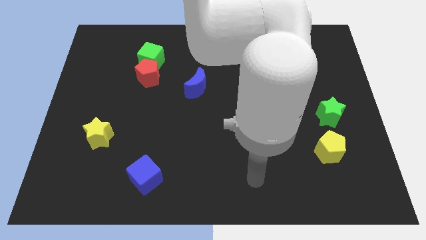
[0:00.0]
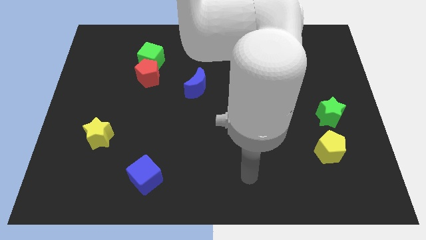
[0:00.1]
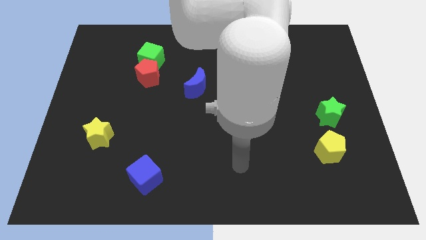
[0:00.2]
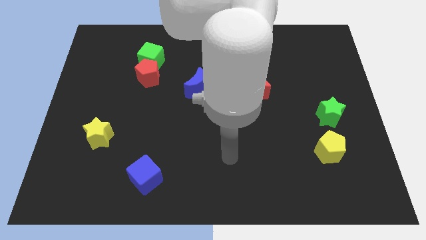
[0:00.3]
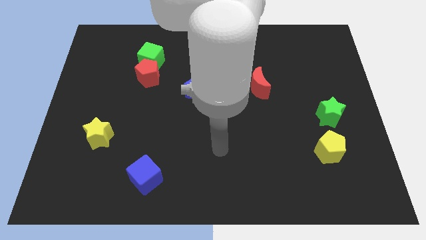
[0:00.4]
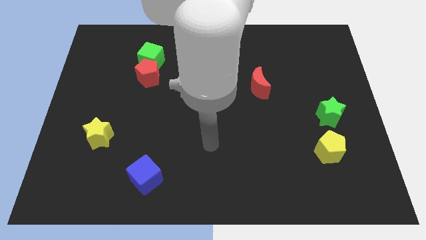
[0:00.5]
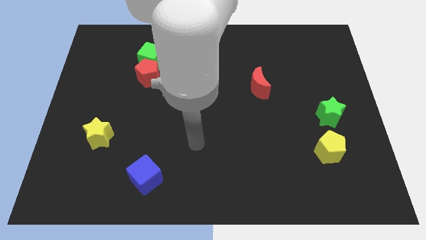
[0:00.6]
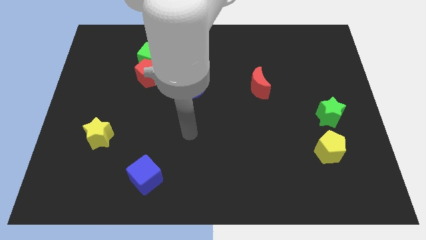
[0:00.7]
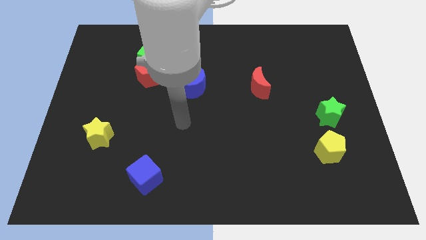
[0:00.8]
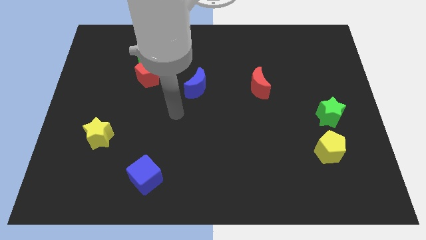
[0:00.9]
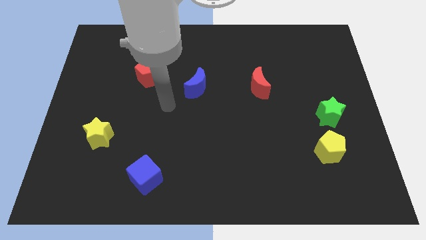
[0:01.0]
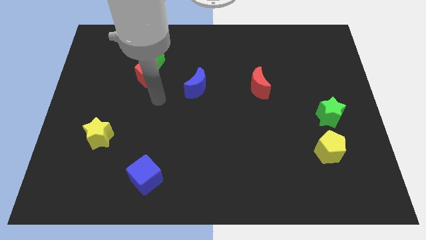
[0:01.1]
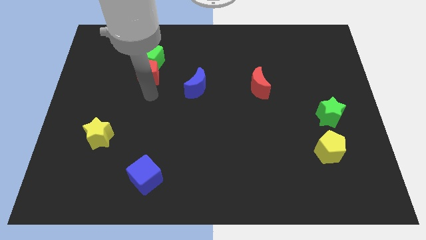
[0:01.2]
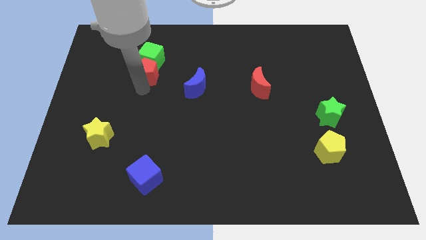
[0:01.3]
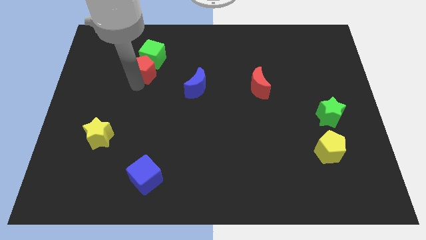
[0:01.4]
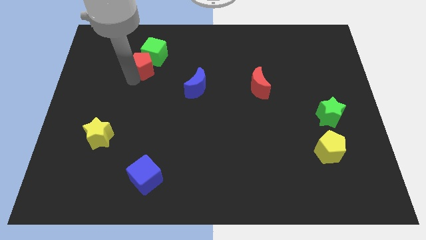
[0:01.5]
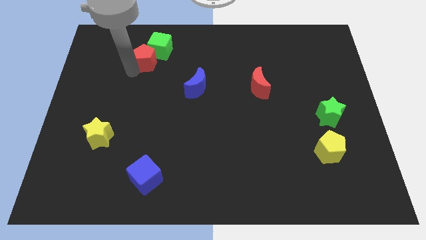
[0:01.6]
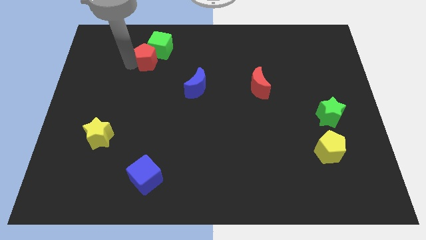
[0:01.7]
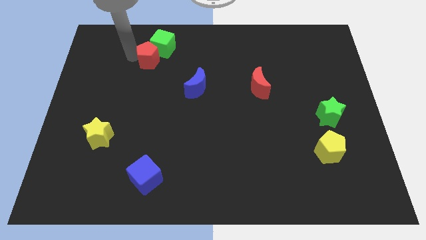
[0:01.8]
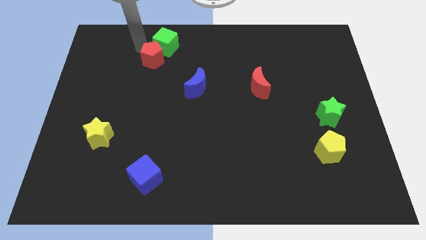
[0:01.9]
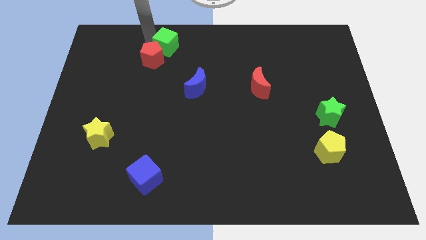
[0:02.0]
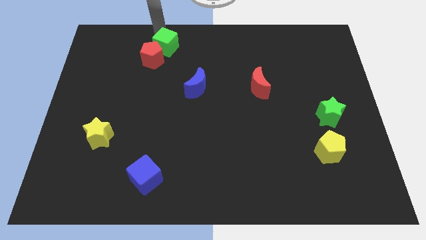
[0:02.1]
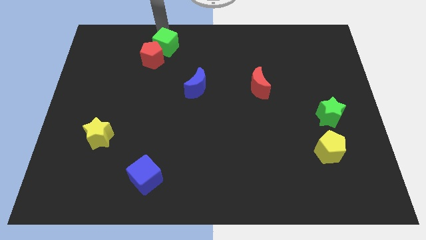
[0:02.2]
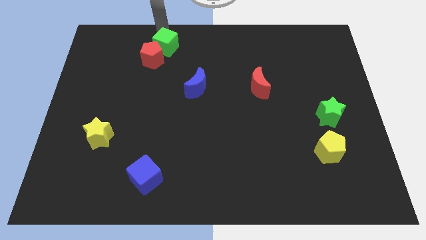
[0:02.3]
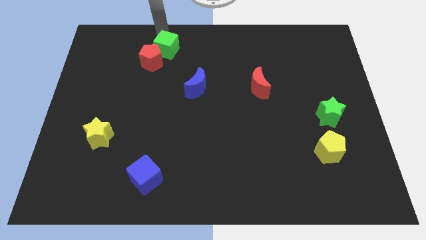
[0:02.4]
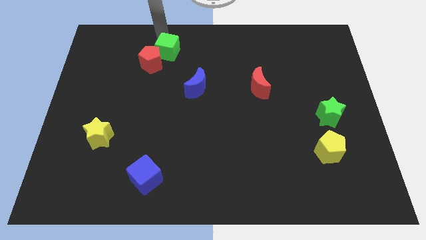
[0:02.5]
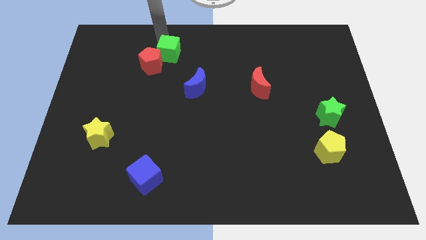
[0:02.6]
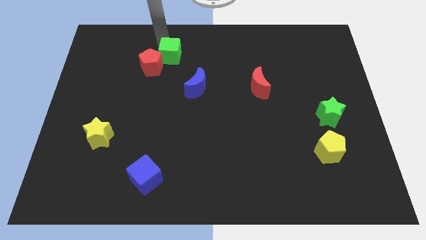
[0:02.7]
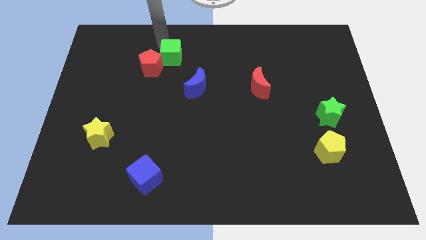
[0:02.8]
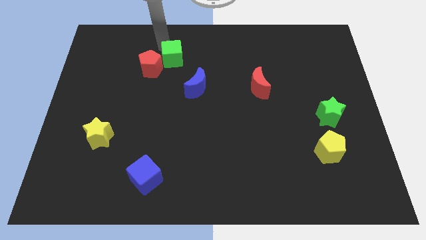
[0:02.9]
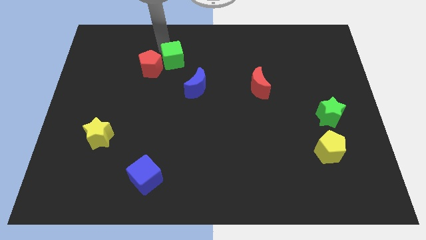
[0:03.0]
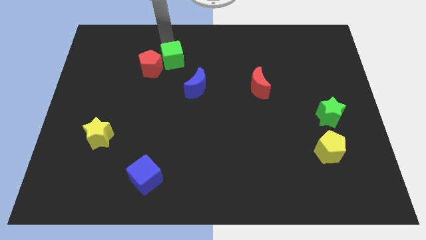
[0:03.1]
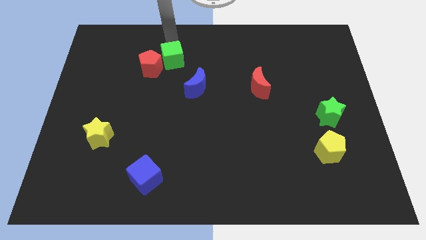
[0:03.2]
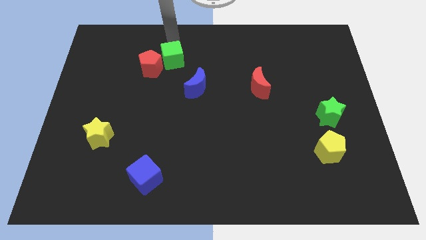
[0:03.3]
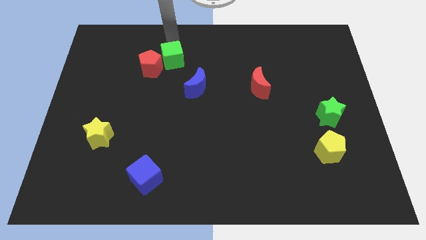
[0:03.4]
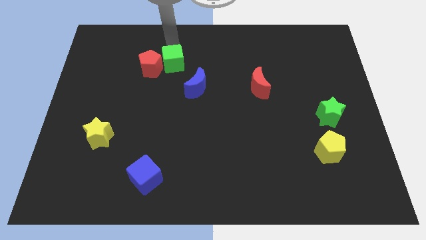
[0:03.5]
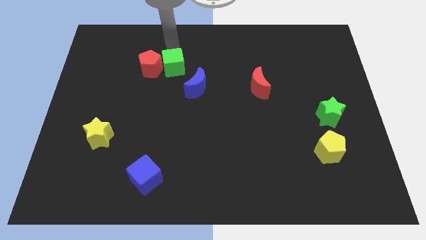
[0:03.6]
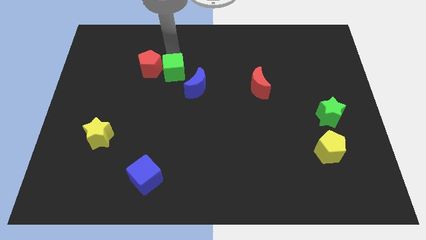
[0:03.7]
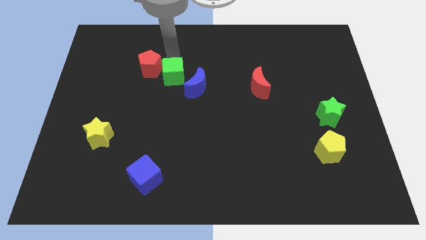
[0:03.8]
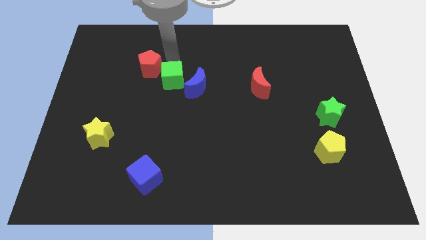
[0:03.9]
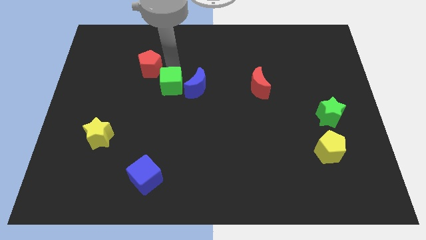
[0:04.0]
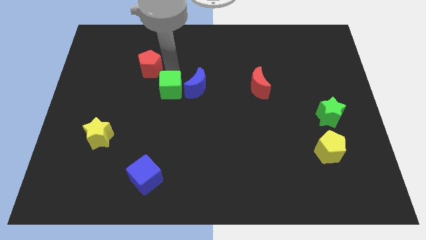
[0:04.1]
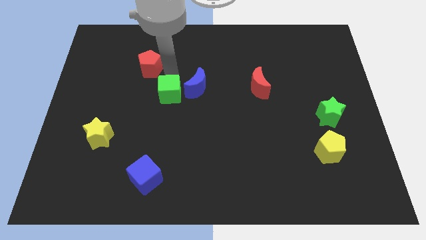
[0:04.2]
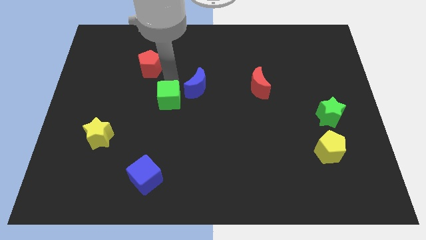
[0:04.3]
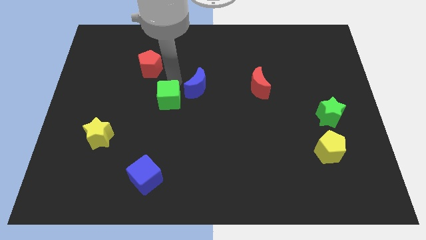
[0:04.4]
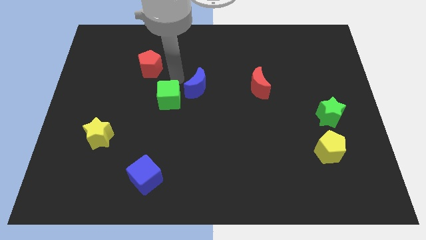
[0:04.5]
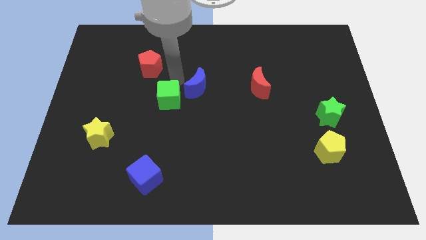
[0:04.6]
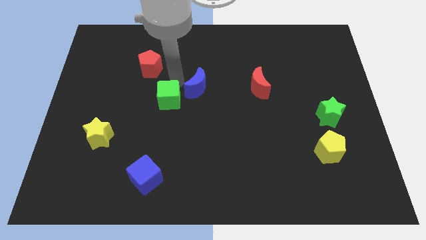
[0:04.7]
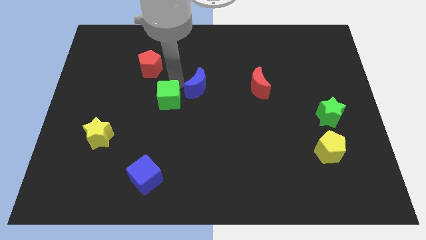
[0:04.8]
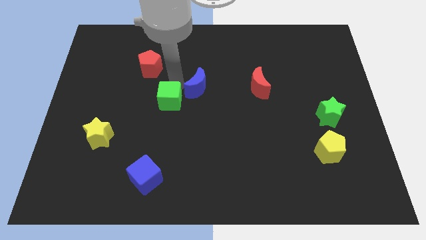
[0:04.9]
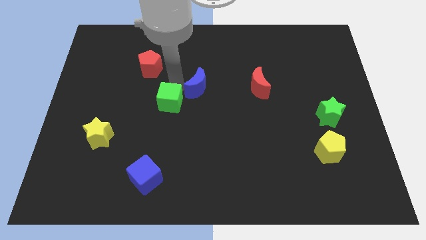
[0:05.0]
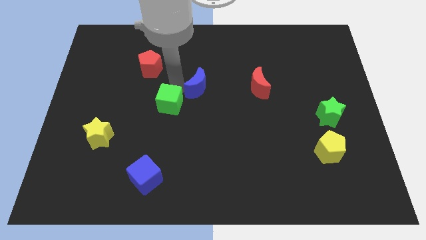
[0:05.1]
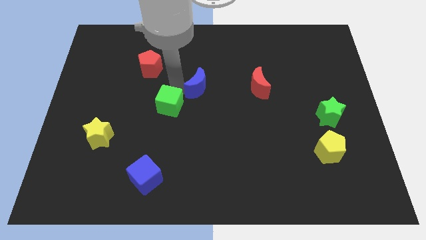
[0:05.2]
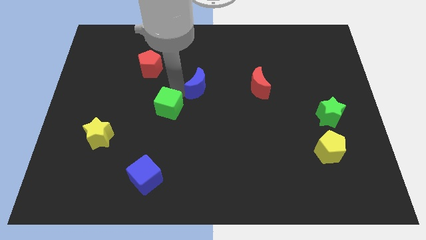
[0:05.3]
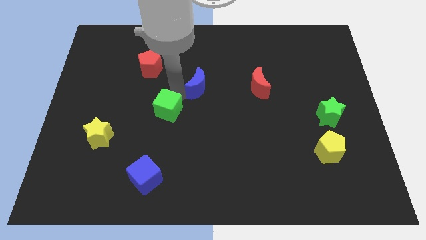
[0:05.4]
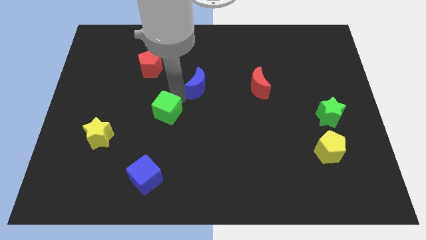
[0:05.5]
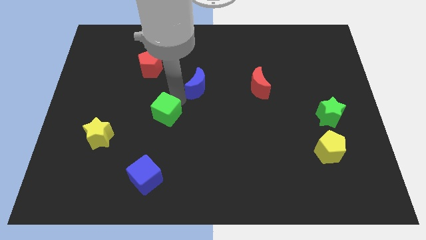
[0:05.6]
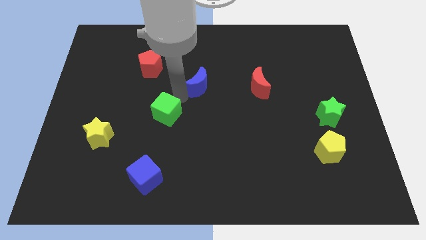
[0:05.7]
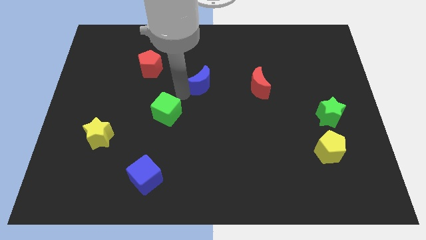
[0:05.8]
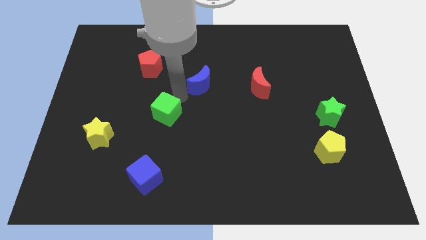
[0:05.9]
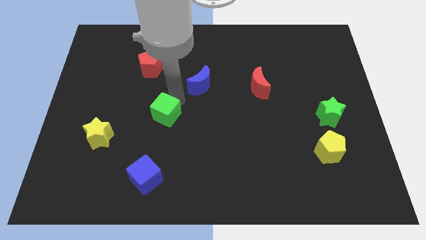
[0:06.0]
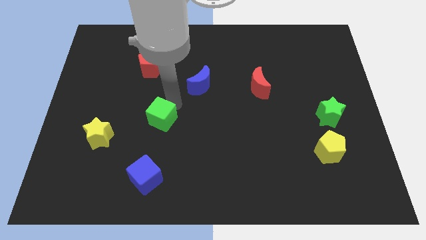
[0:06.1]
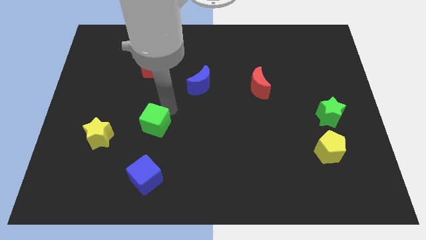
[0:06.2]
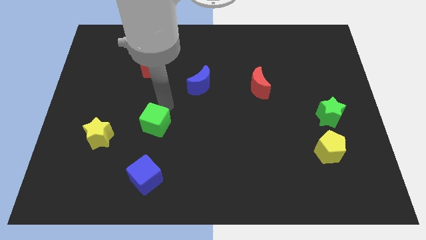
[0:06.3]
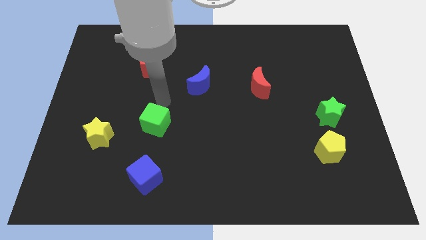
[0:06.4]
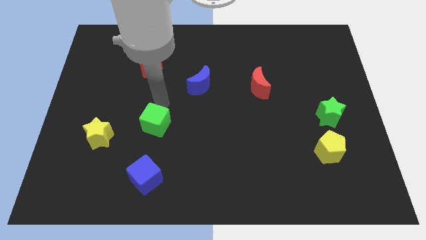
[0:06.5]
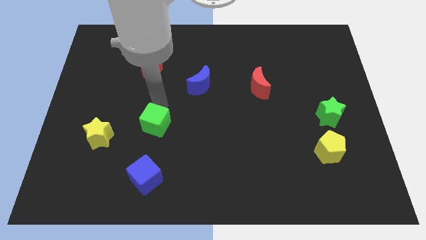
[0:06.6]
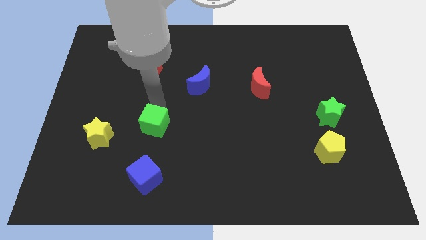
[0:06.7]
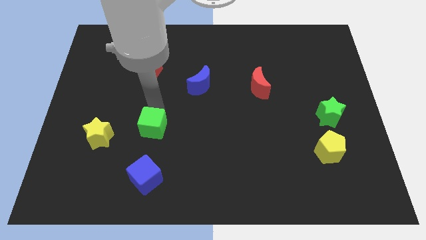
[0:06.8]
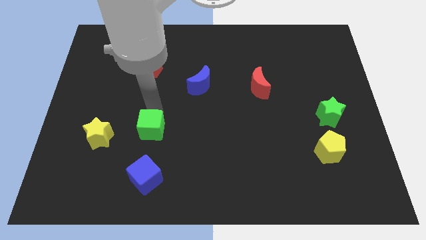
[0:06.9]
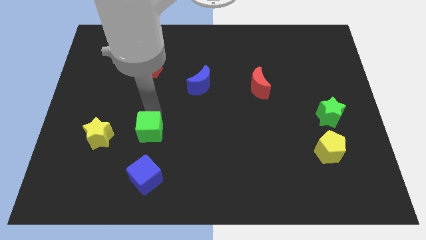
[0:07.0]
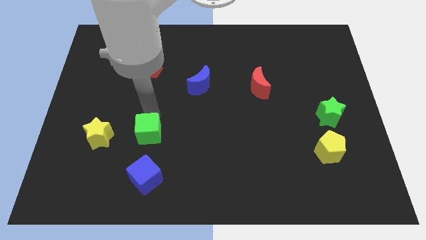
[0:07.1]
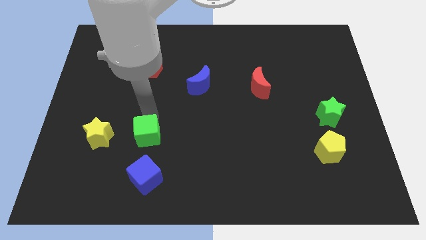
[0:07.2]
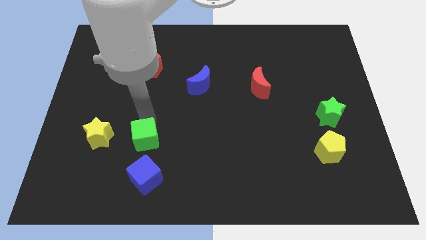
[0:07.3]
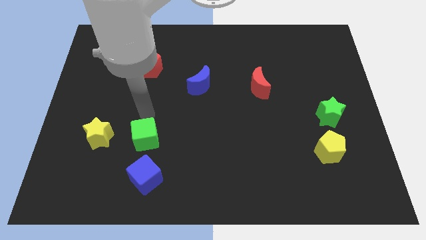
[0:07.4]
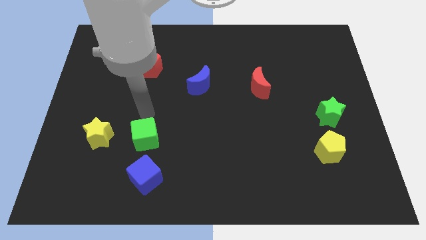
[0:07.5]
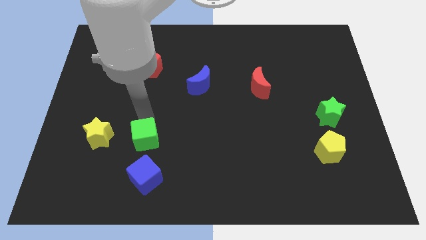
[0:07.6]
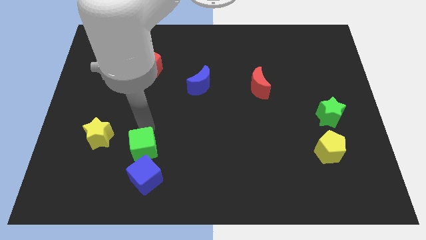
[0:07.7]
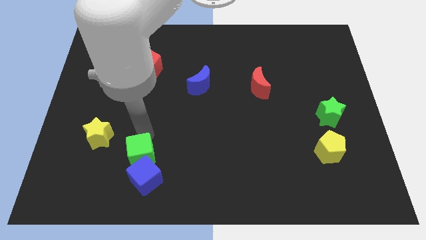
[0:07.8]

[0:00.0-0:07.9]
move the green cube next to the blue cube
